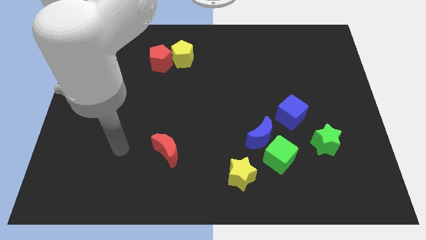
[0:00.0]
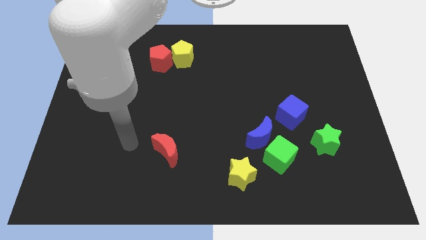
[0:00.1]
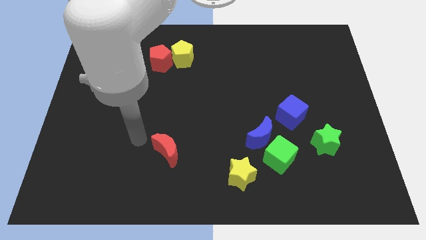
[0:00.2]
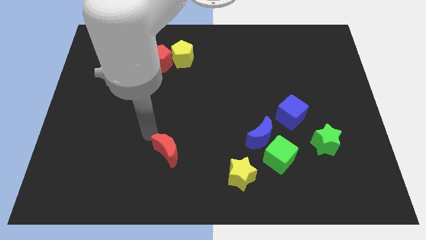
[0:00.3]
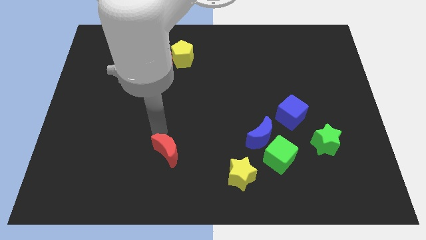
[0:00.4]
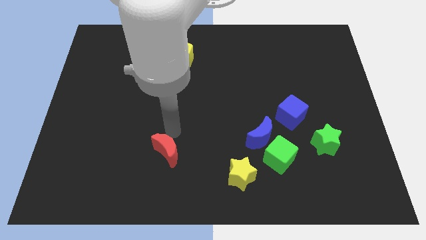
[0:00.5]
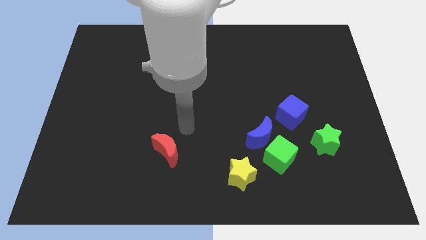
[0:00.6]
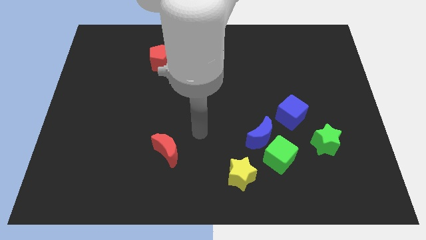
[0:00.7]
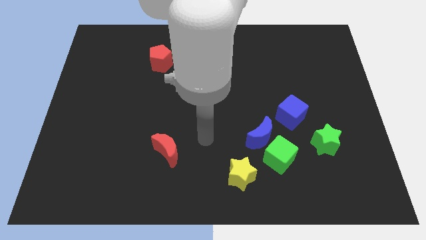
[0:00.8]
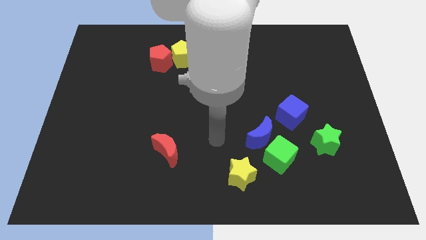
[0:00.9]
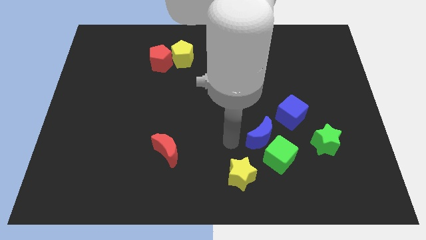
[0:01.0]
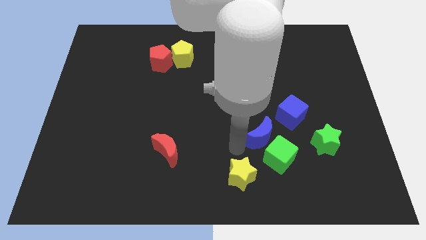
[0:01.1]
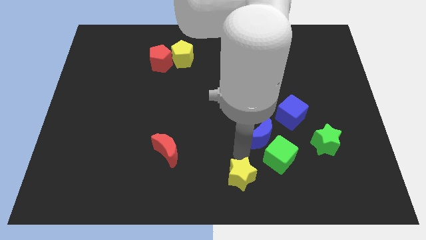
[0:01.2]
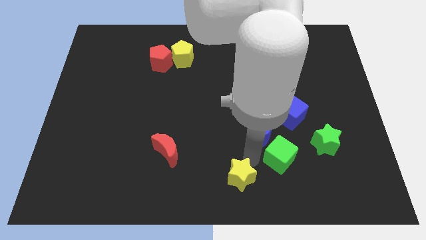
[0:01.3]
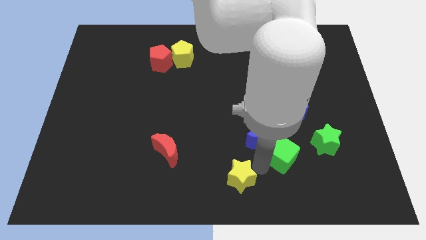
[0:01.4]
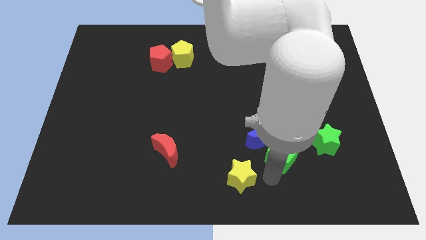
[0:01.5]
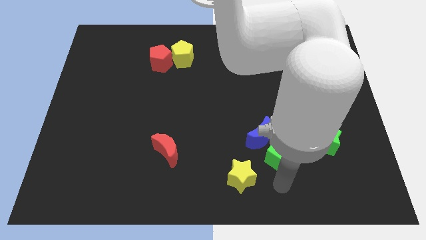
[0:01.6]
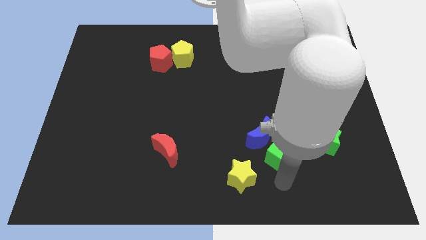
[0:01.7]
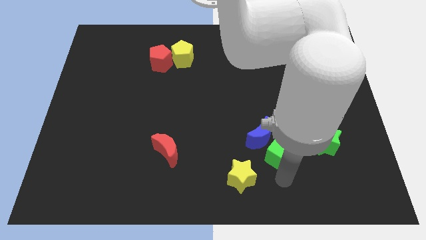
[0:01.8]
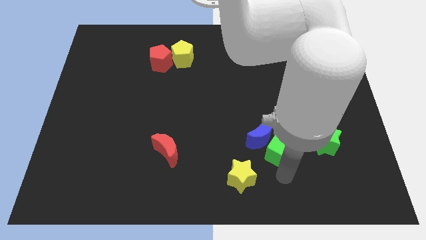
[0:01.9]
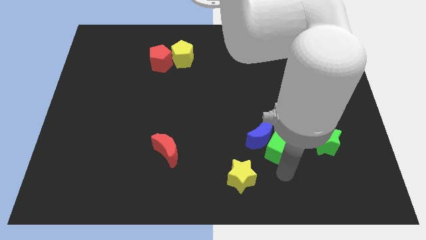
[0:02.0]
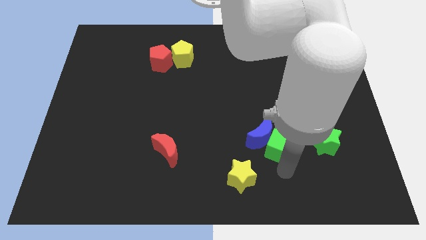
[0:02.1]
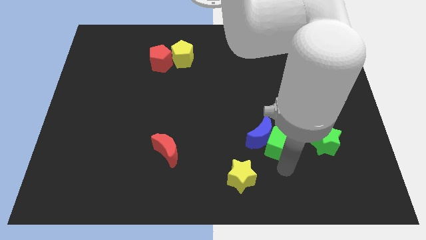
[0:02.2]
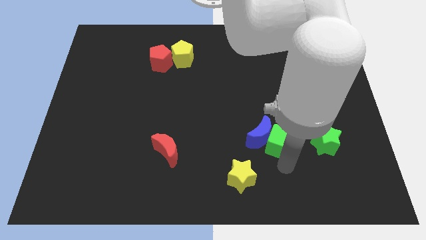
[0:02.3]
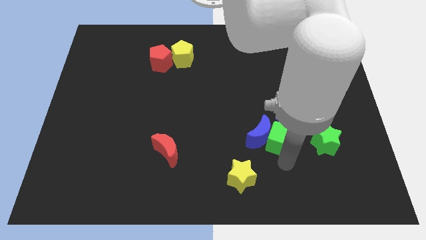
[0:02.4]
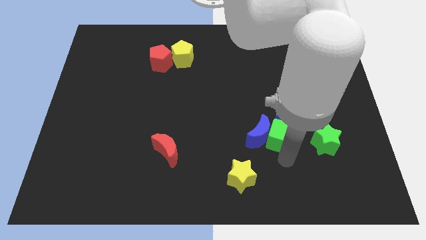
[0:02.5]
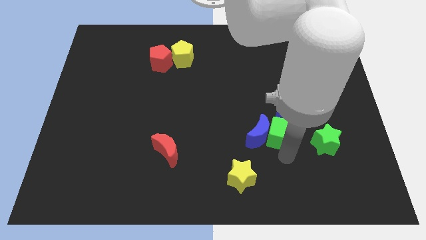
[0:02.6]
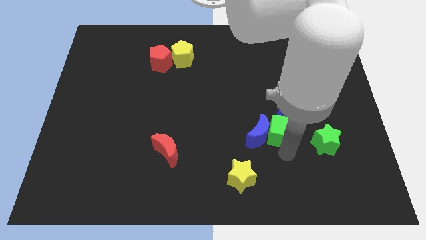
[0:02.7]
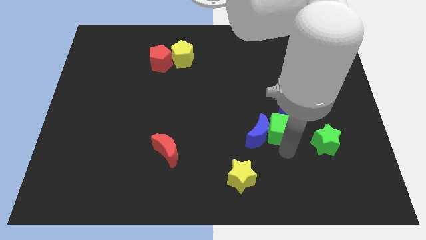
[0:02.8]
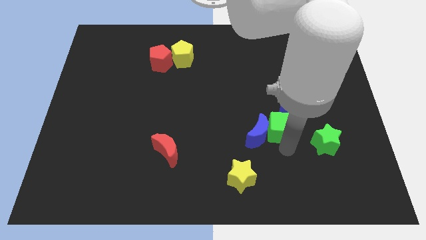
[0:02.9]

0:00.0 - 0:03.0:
slightly push the green cube up

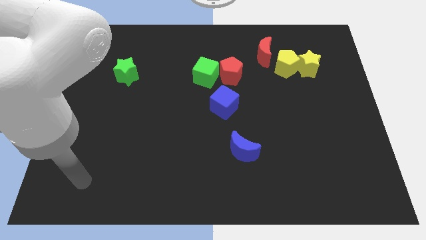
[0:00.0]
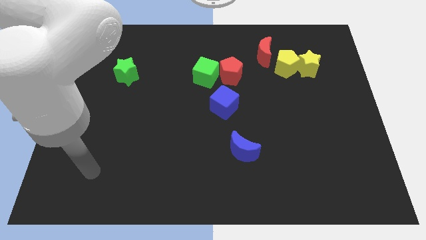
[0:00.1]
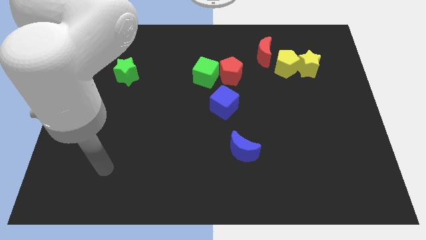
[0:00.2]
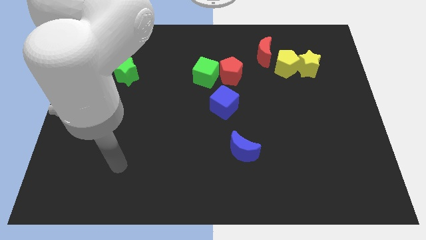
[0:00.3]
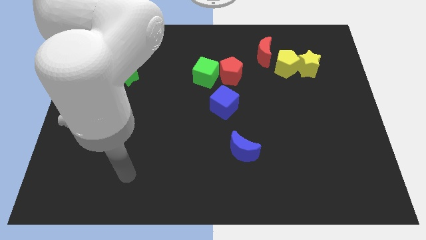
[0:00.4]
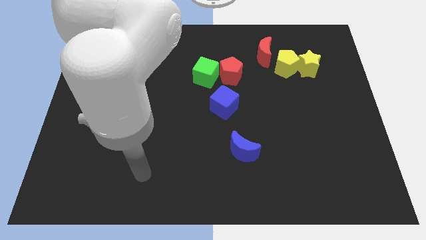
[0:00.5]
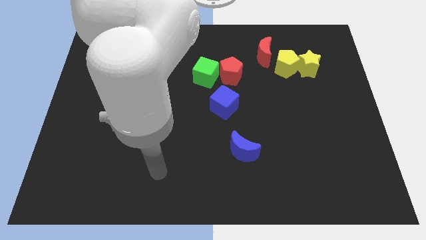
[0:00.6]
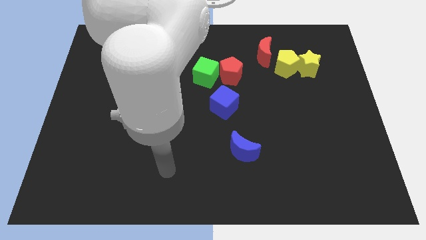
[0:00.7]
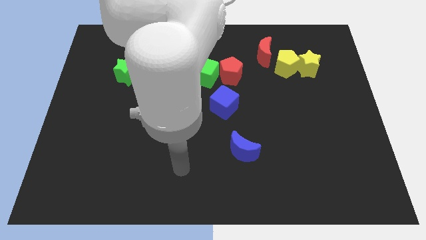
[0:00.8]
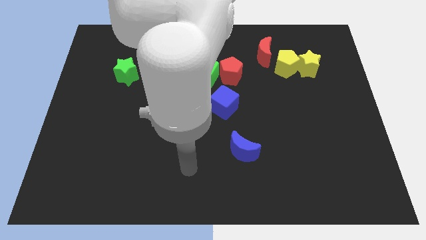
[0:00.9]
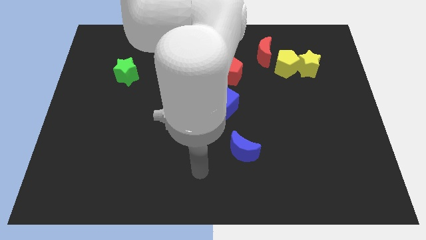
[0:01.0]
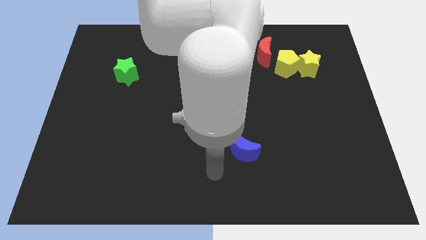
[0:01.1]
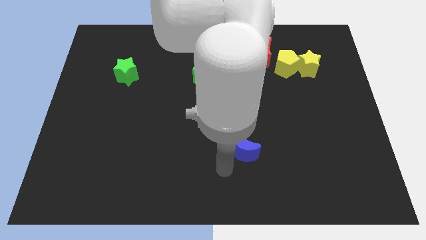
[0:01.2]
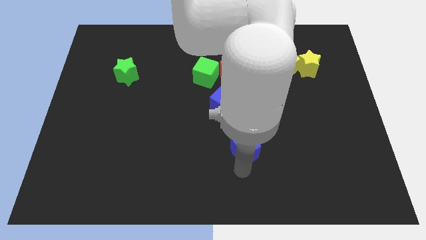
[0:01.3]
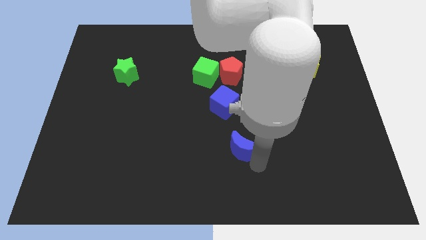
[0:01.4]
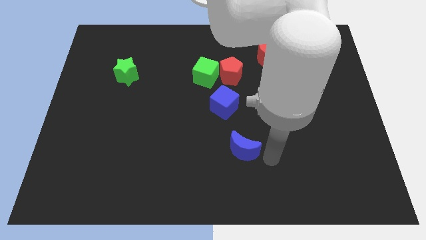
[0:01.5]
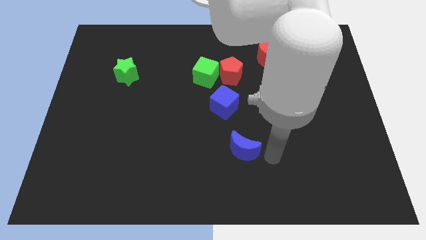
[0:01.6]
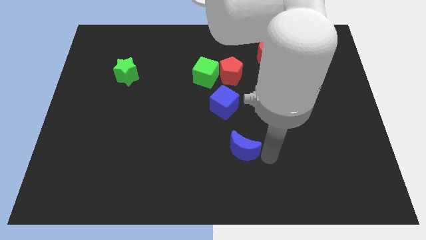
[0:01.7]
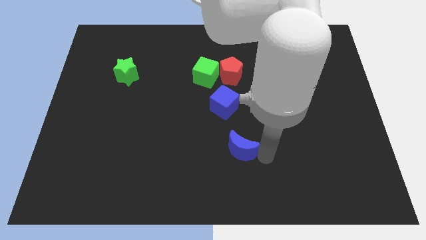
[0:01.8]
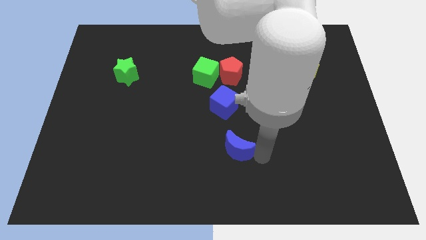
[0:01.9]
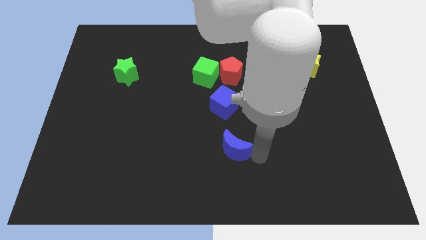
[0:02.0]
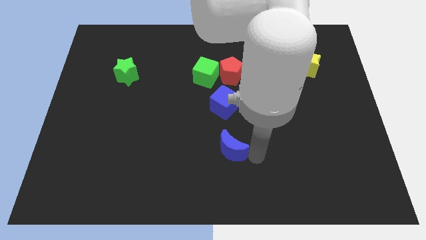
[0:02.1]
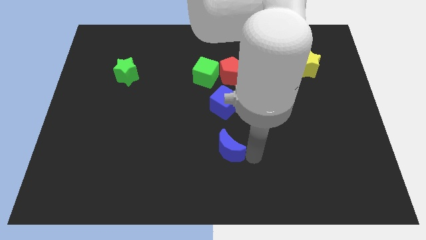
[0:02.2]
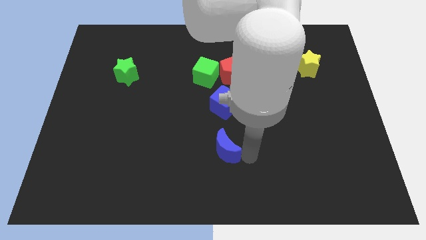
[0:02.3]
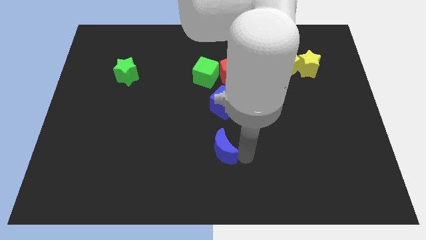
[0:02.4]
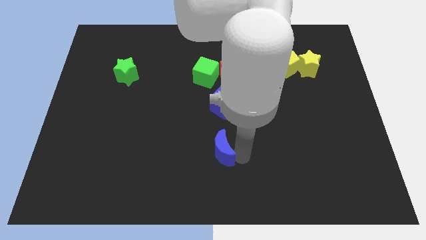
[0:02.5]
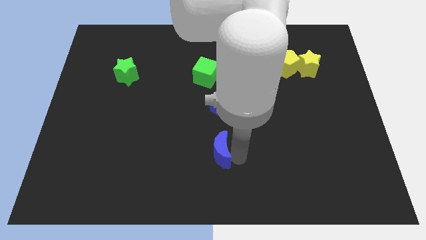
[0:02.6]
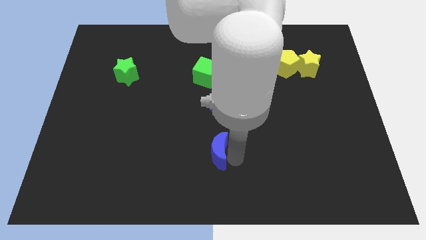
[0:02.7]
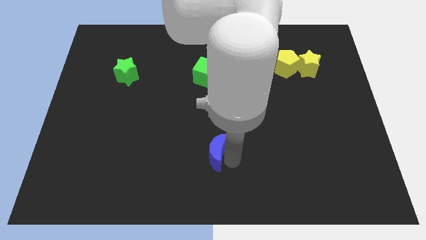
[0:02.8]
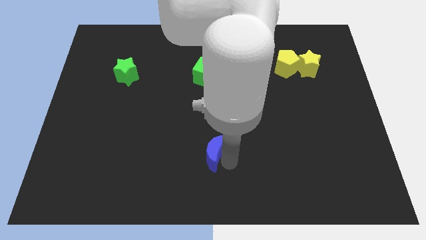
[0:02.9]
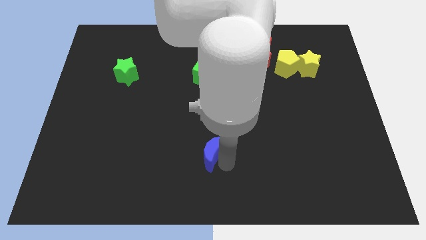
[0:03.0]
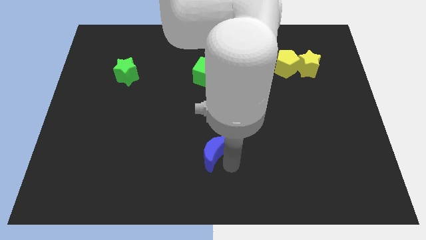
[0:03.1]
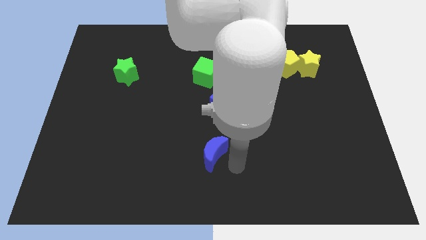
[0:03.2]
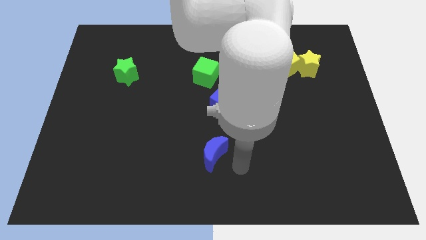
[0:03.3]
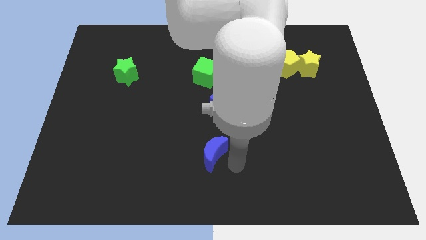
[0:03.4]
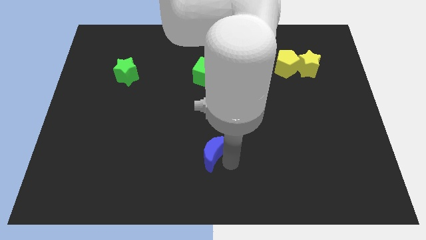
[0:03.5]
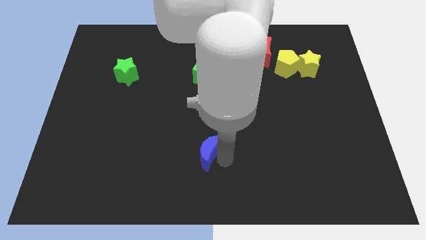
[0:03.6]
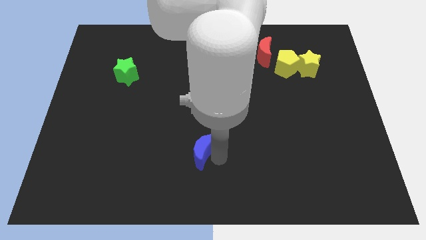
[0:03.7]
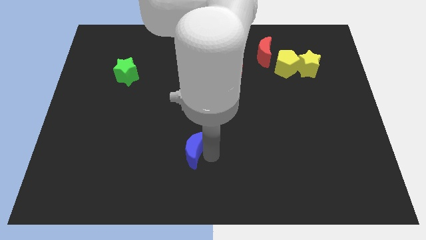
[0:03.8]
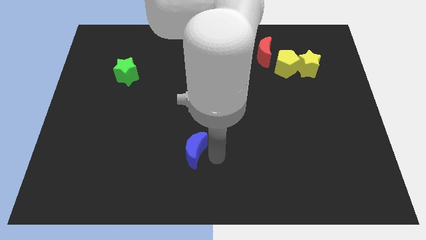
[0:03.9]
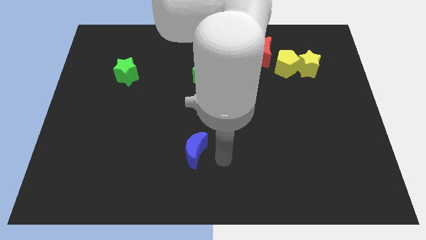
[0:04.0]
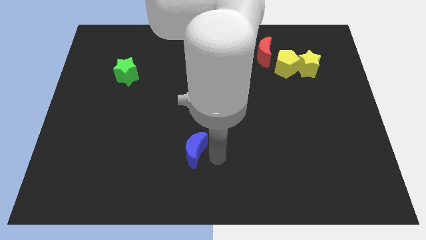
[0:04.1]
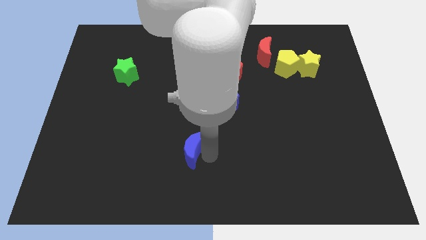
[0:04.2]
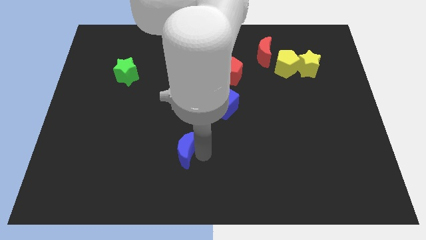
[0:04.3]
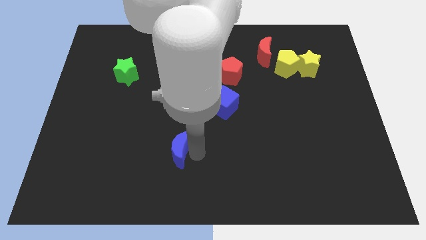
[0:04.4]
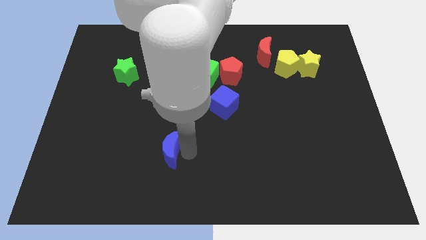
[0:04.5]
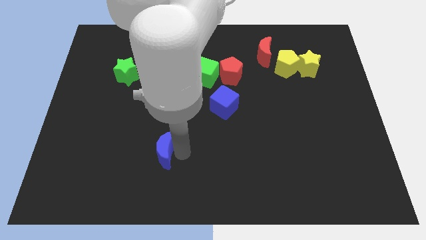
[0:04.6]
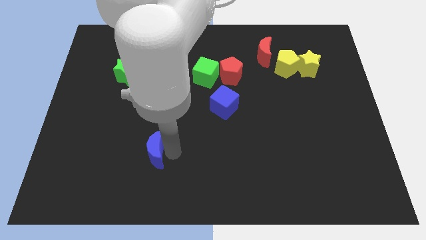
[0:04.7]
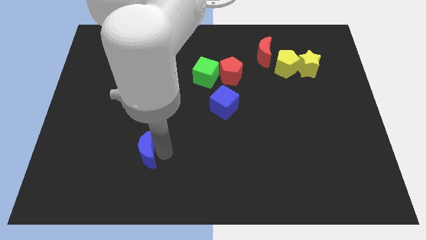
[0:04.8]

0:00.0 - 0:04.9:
push the blue moon to the left
